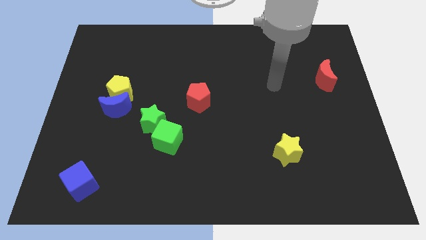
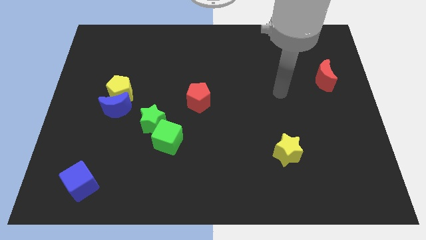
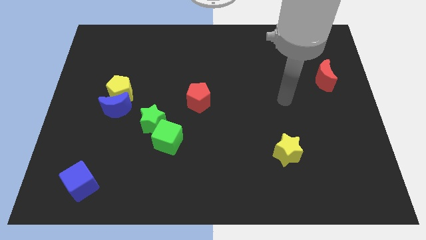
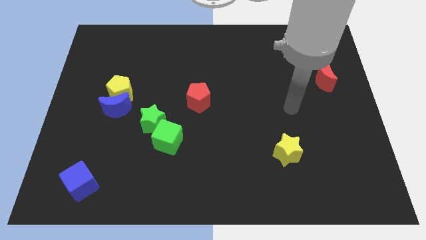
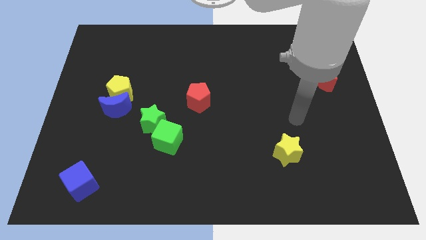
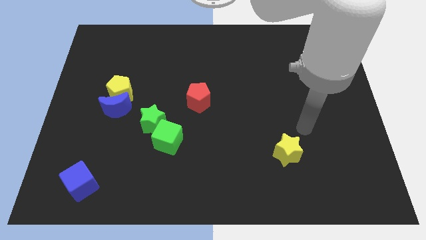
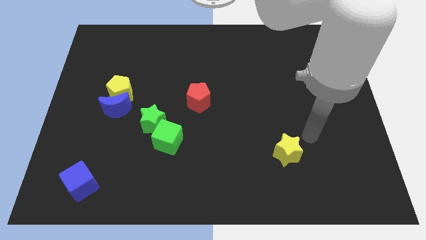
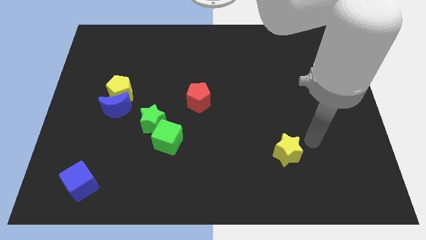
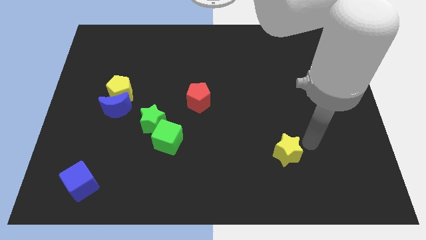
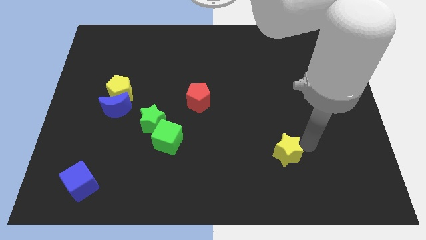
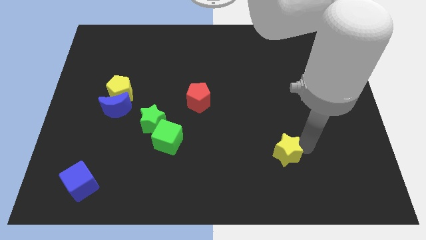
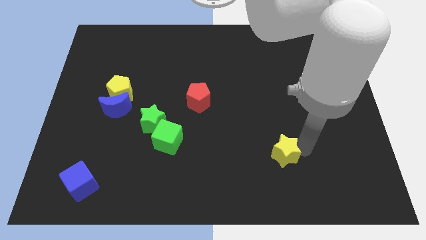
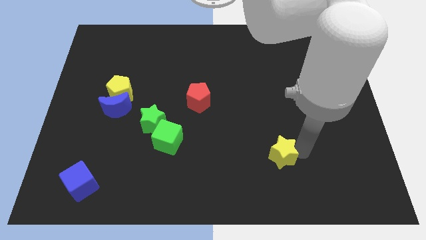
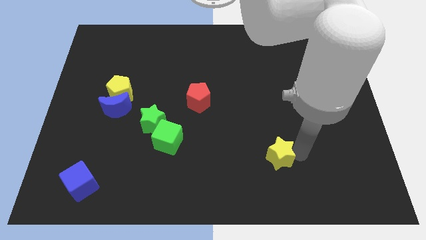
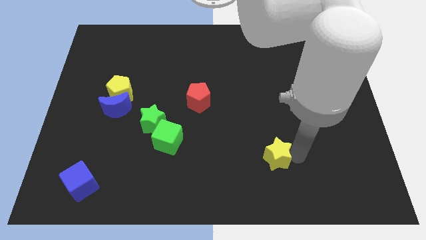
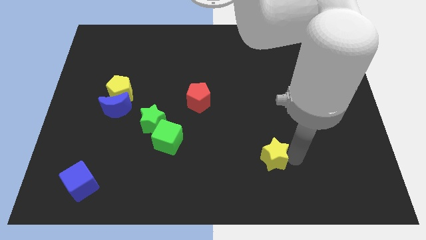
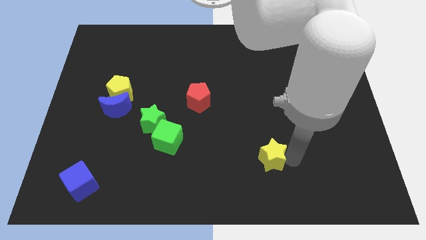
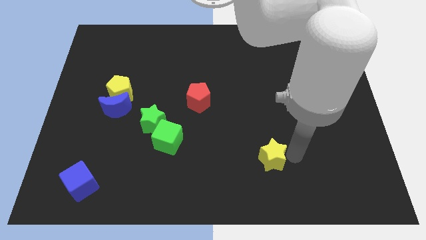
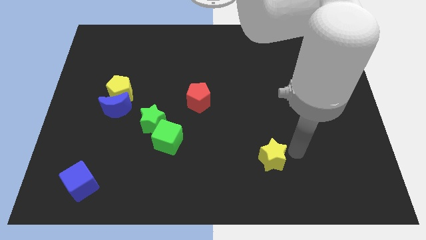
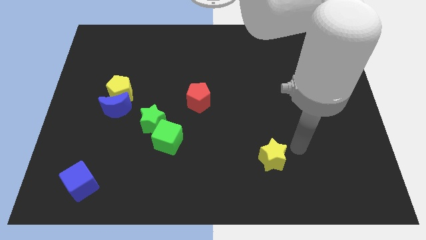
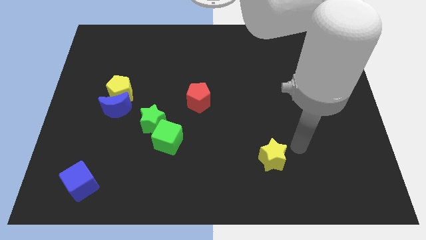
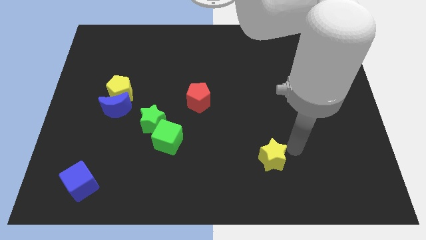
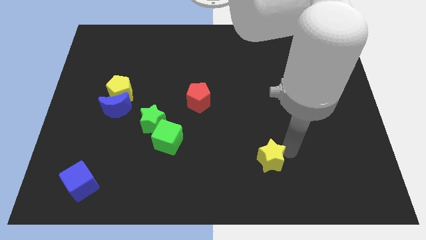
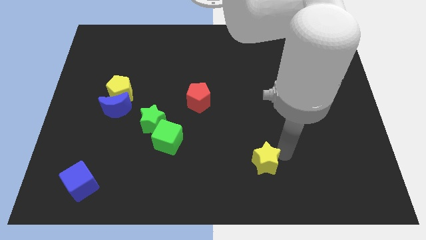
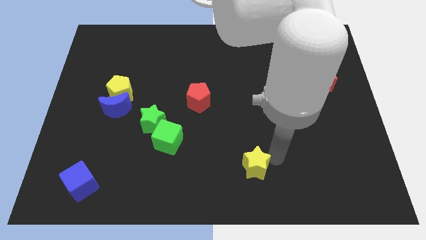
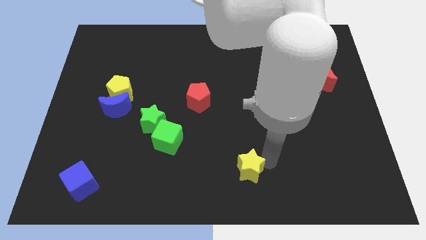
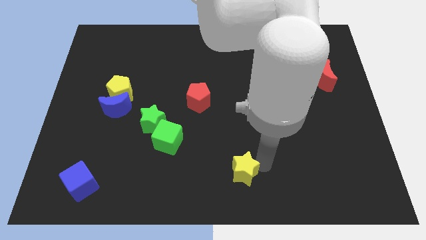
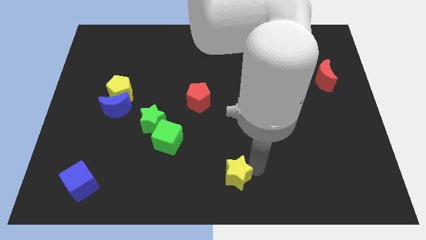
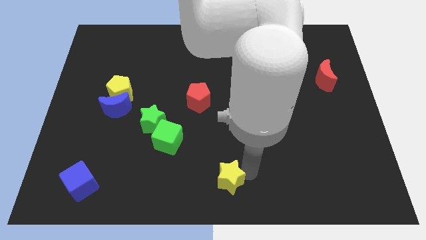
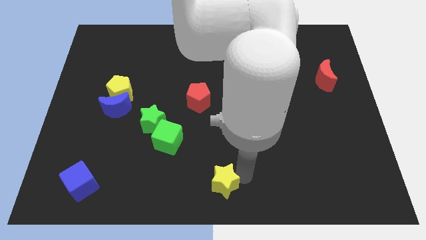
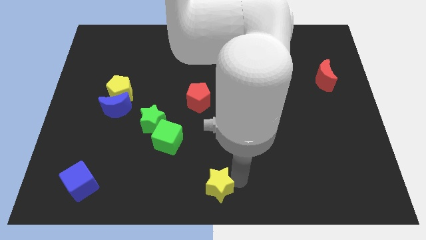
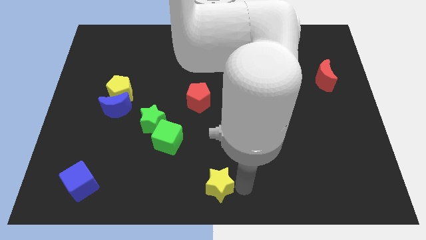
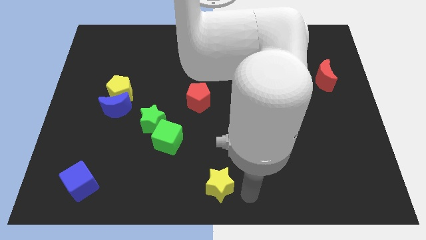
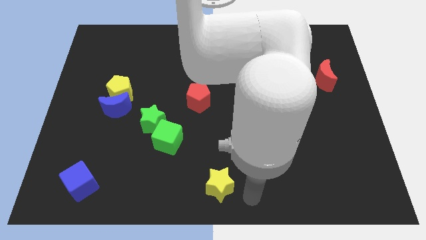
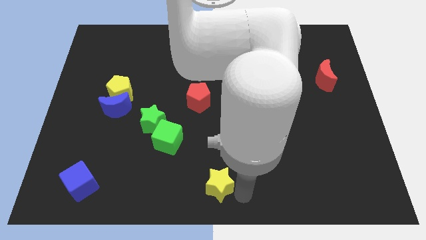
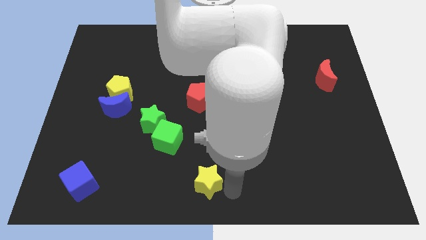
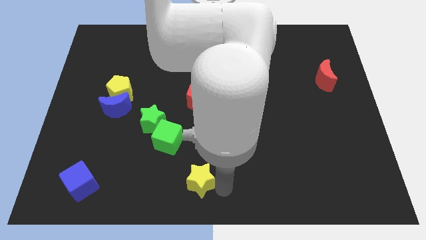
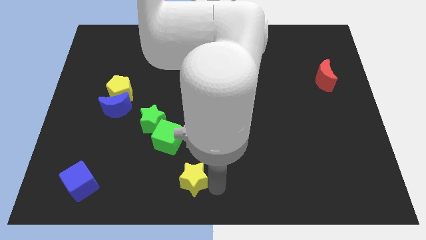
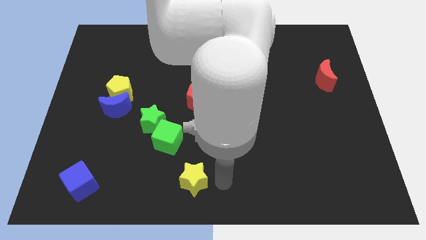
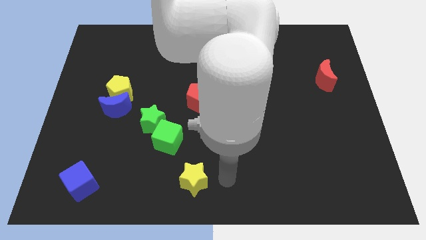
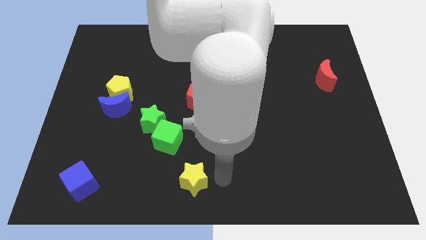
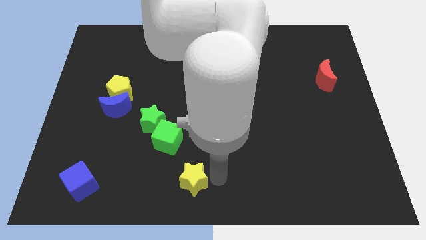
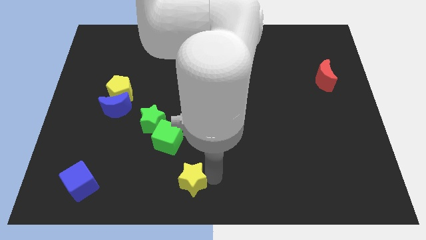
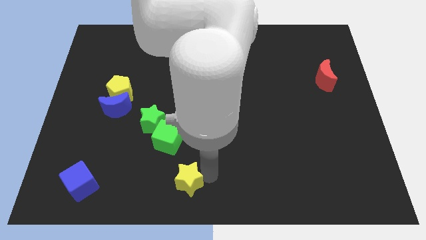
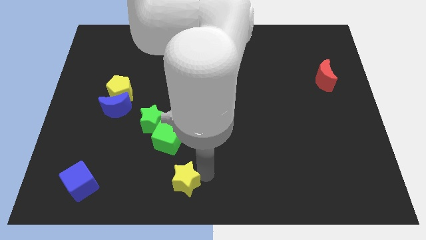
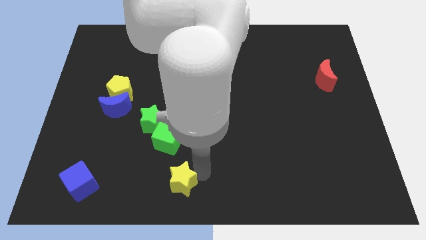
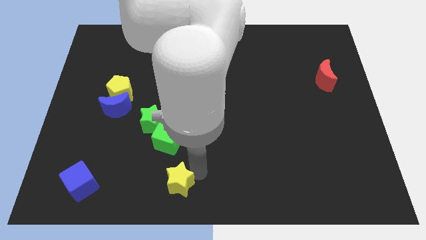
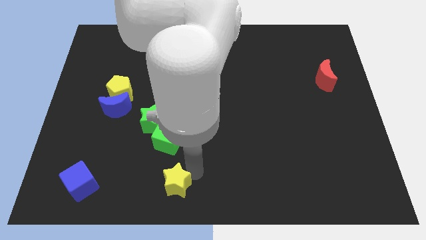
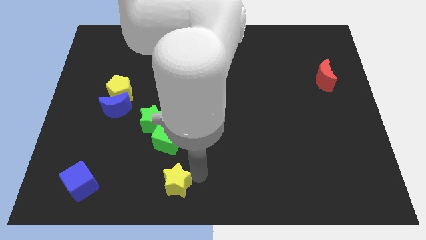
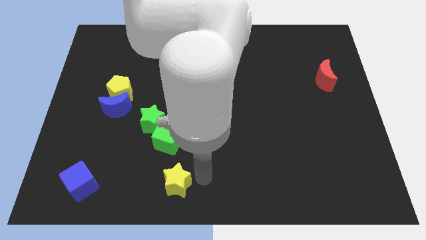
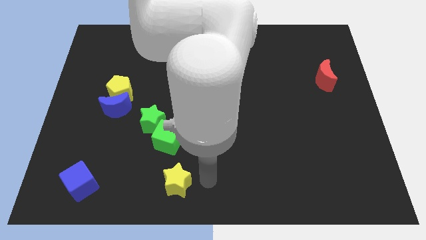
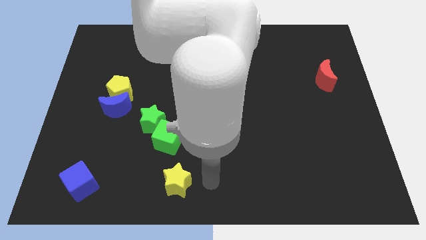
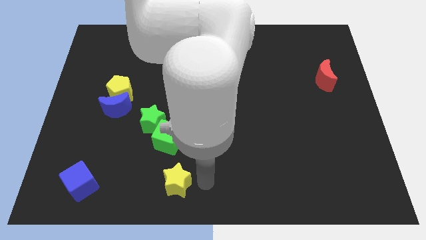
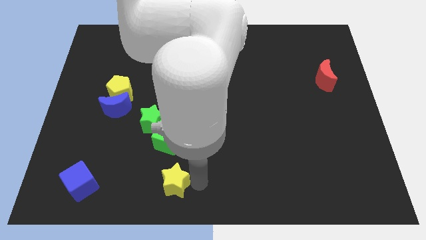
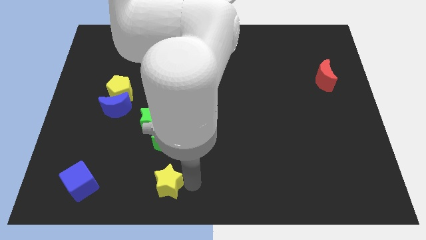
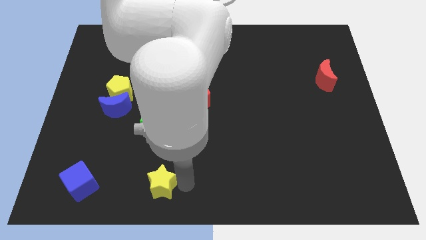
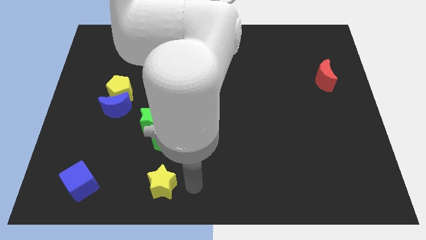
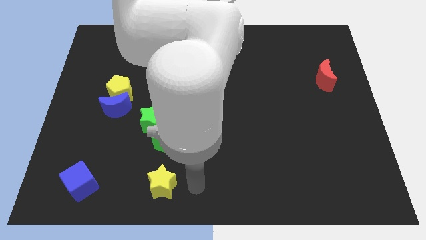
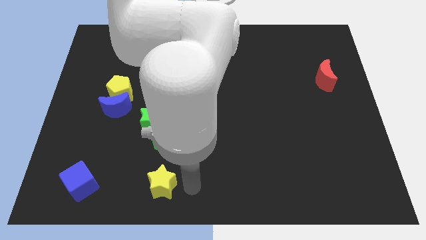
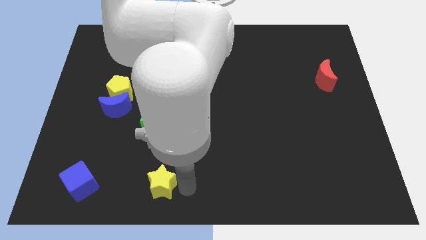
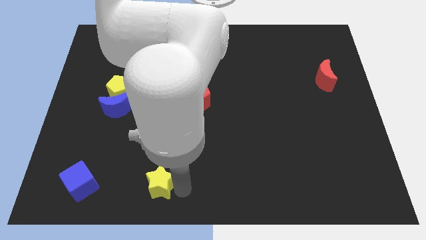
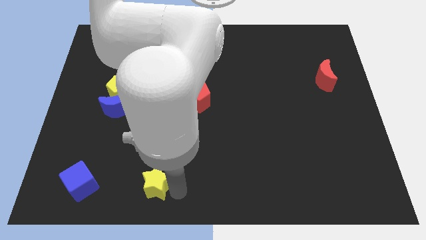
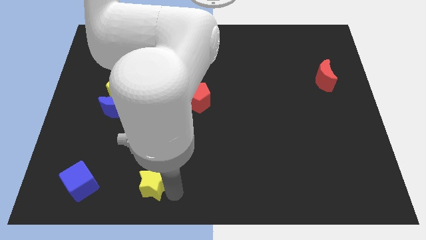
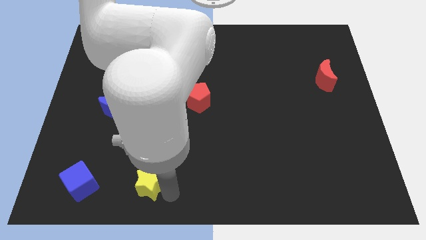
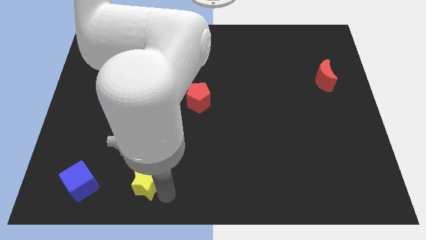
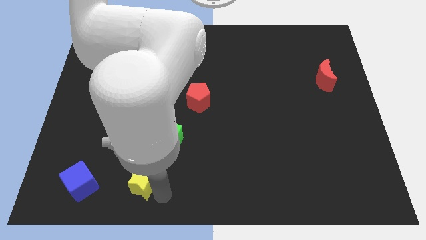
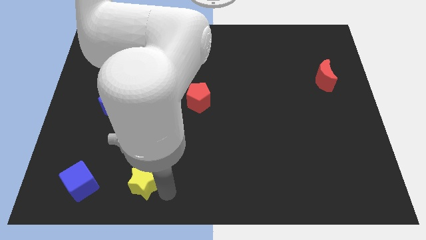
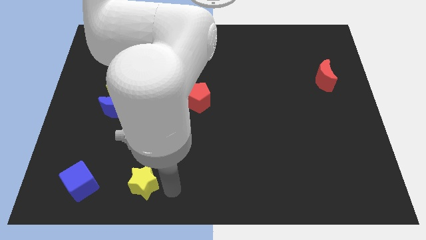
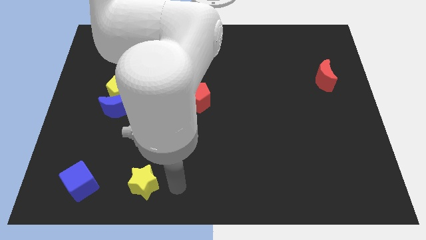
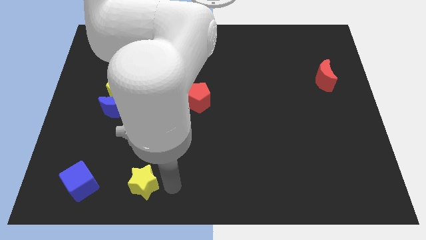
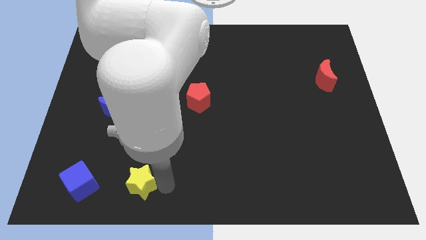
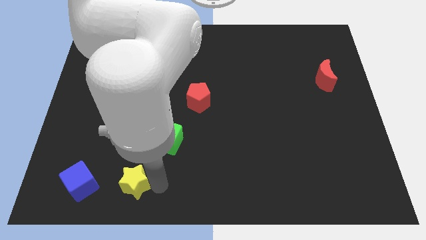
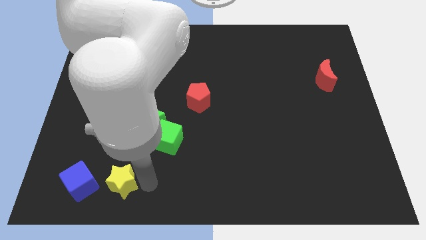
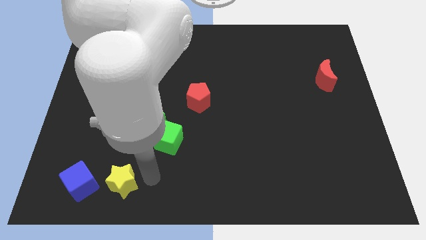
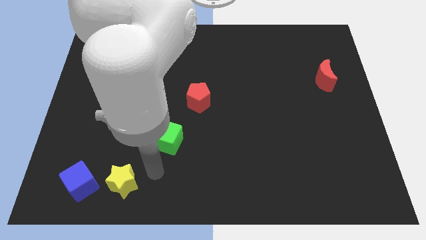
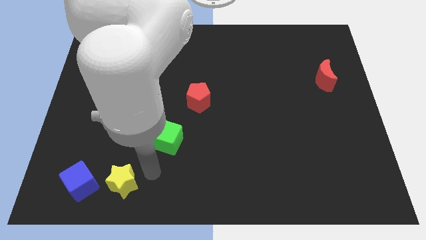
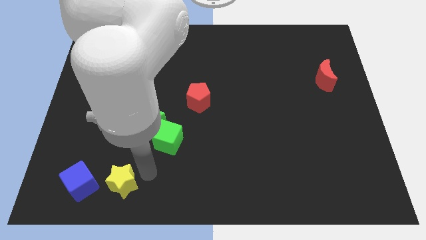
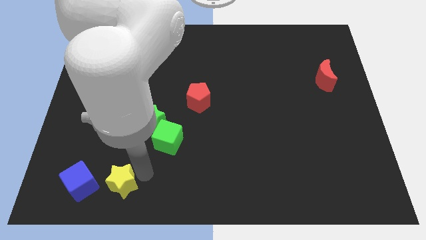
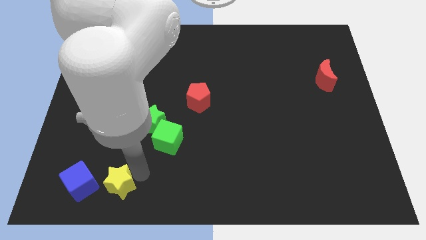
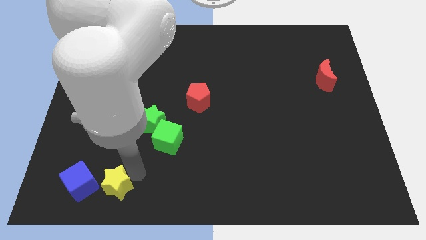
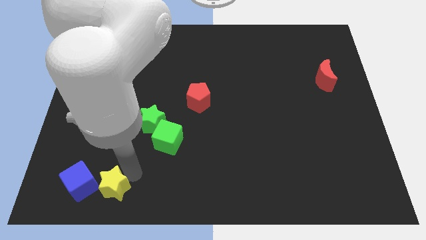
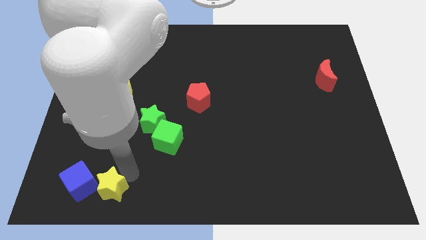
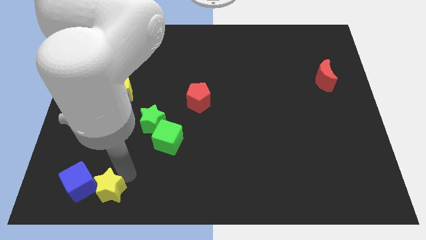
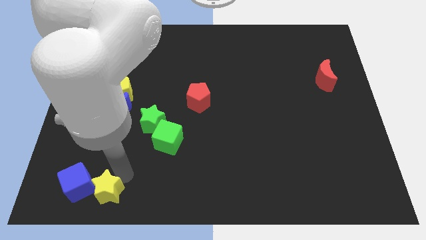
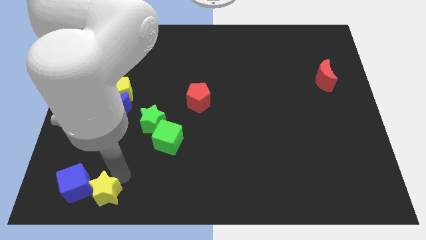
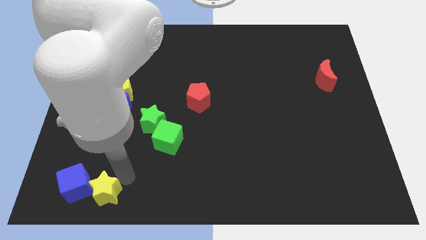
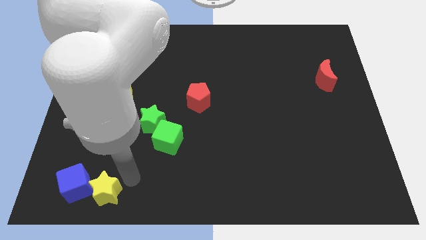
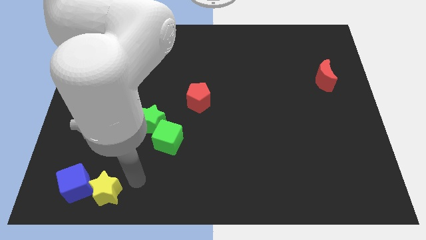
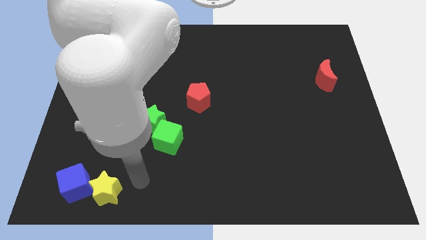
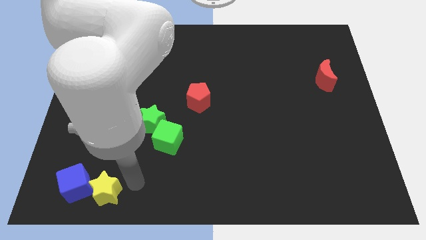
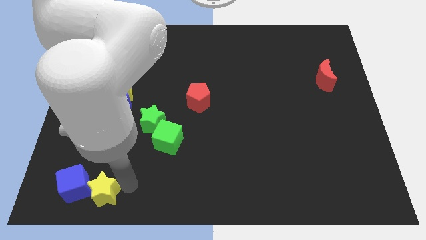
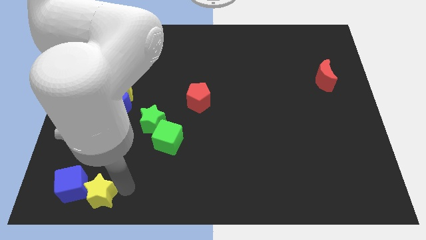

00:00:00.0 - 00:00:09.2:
move the yellow star to the blue cube
